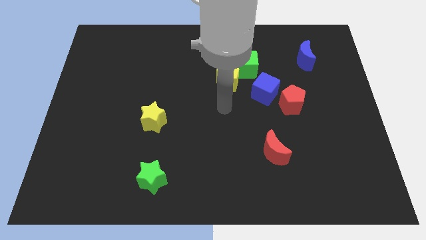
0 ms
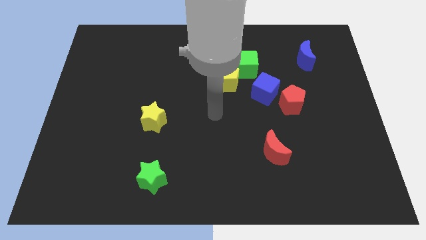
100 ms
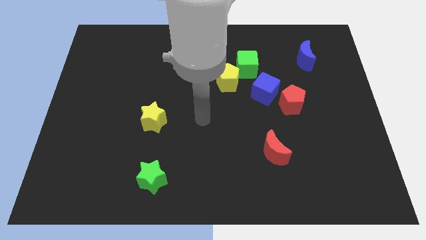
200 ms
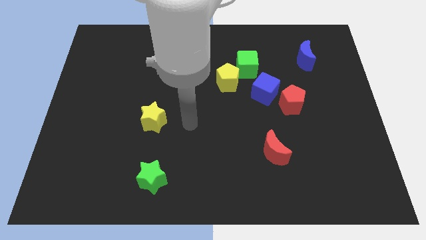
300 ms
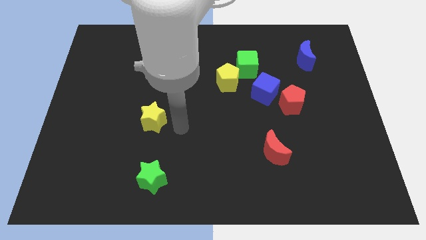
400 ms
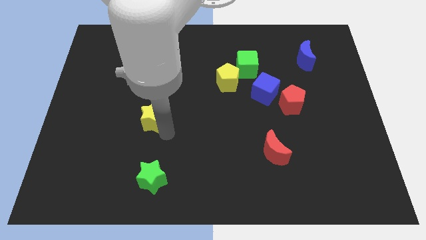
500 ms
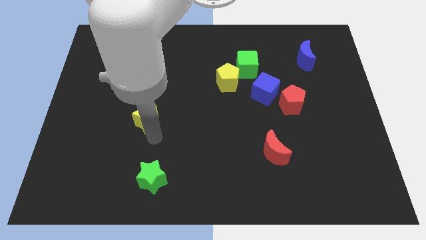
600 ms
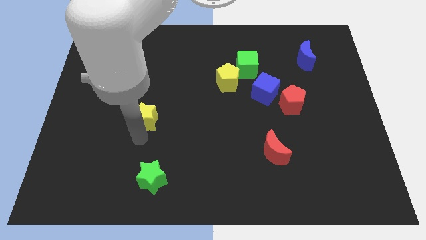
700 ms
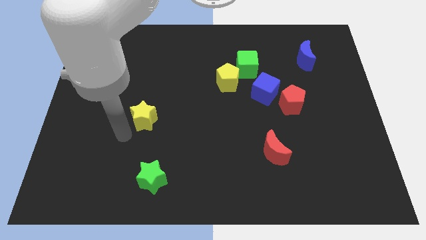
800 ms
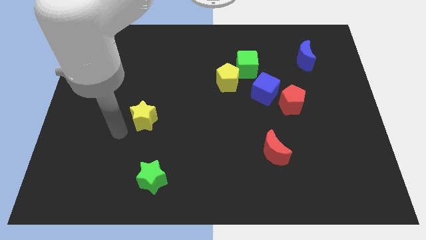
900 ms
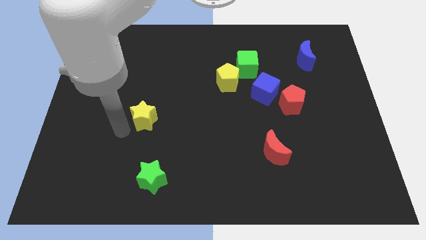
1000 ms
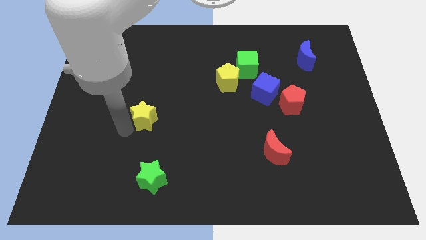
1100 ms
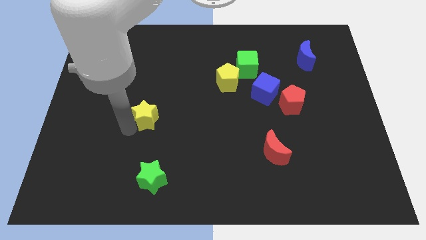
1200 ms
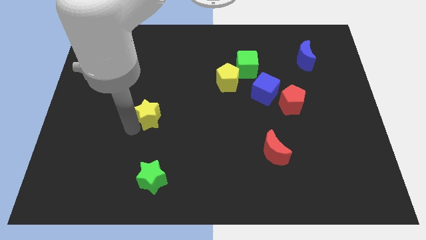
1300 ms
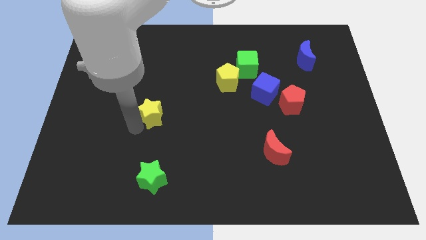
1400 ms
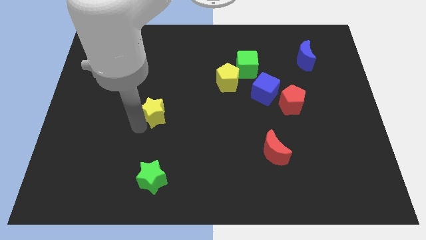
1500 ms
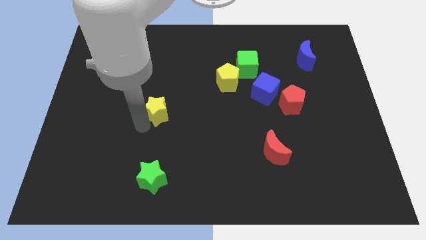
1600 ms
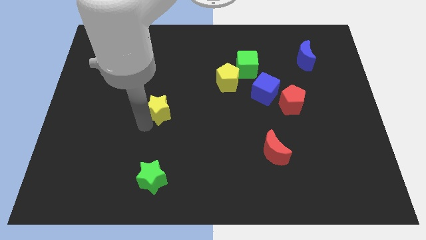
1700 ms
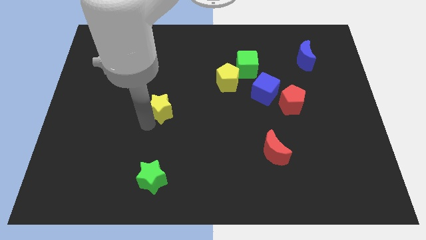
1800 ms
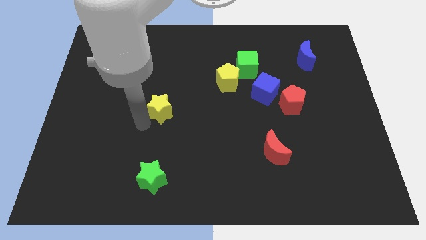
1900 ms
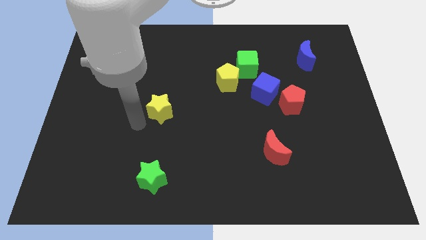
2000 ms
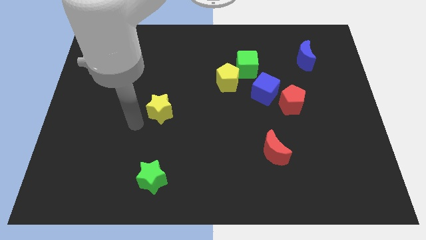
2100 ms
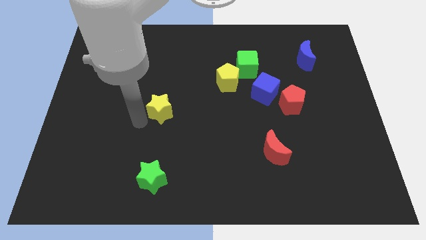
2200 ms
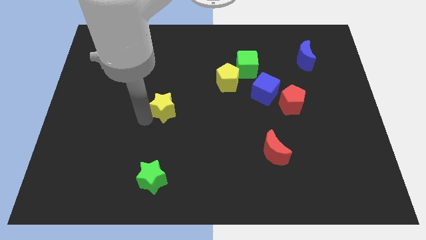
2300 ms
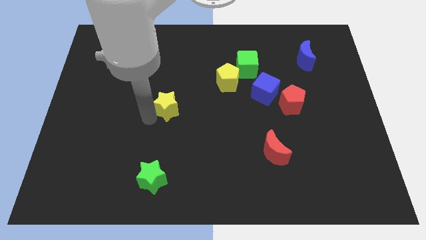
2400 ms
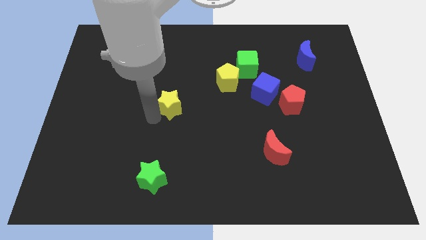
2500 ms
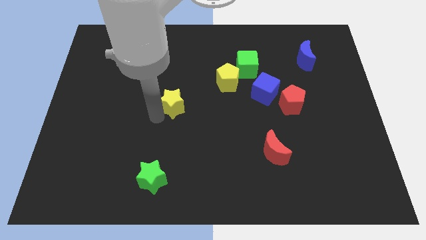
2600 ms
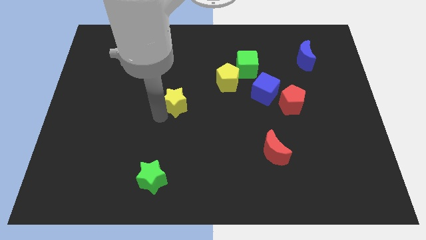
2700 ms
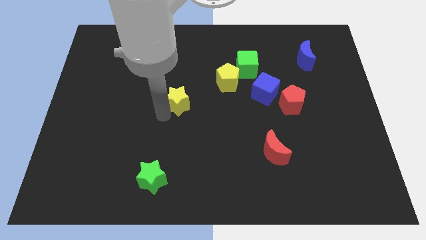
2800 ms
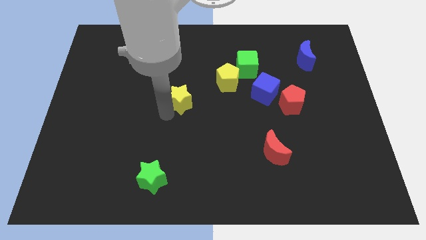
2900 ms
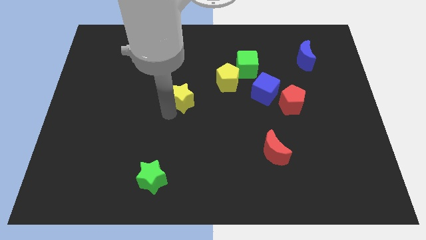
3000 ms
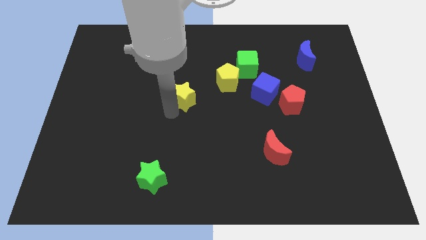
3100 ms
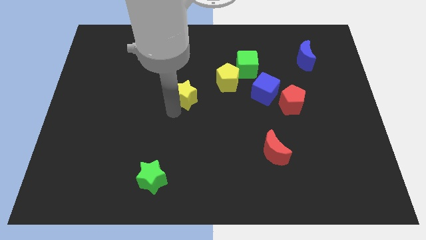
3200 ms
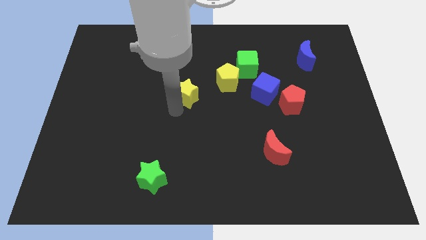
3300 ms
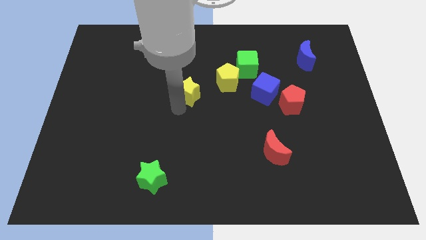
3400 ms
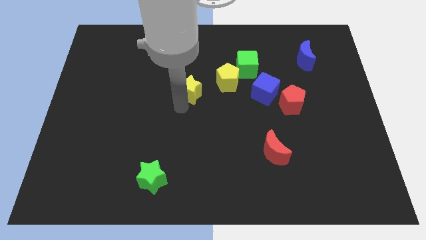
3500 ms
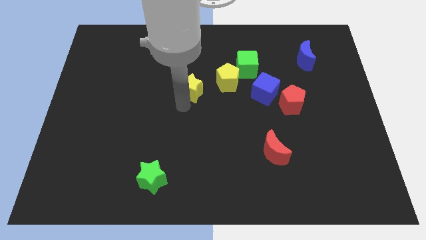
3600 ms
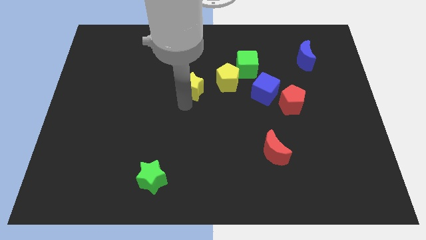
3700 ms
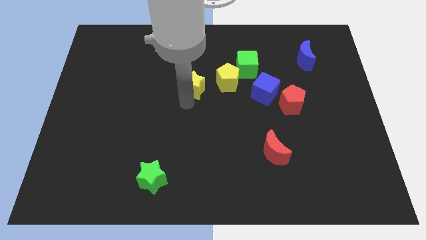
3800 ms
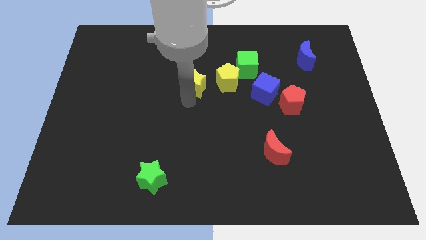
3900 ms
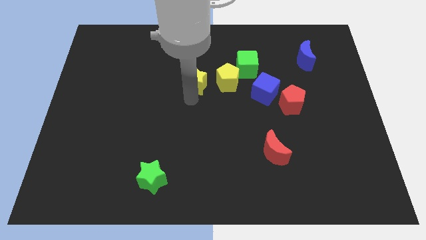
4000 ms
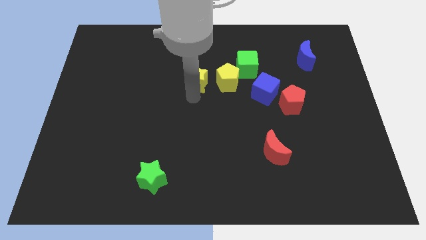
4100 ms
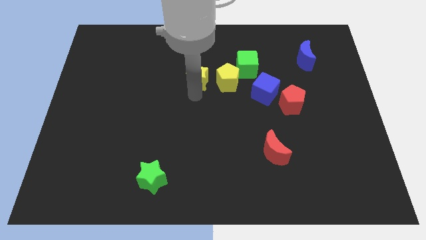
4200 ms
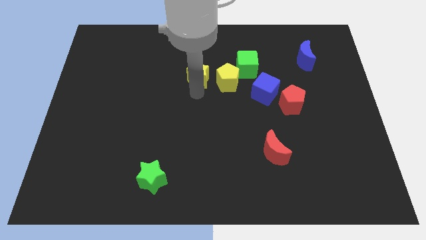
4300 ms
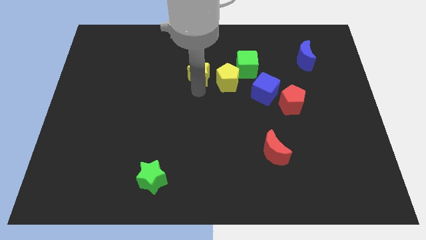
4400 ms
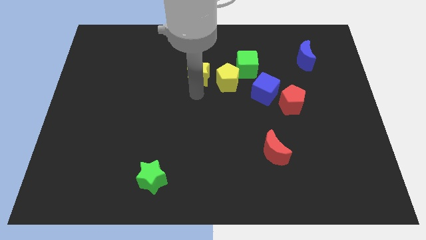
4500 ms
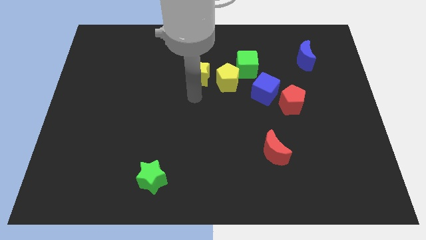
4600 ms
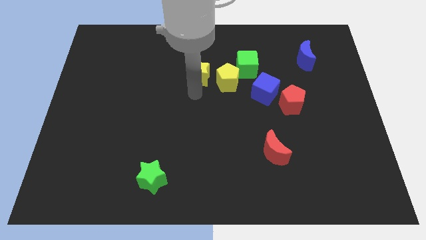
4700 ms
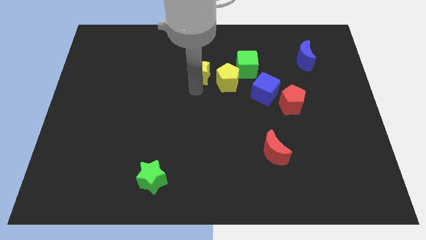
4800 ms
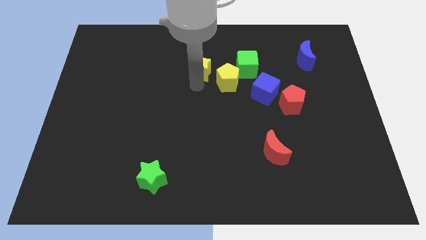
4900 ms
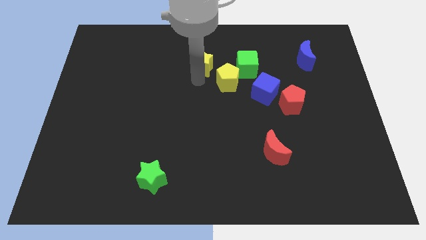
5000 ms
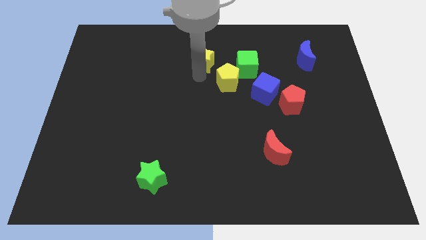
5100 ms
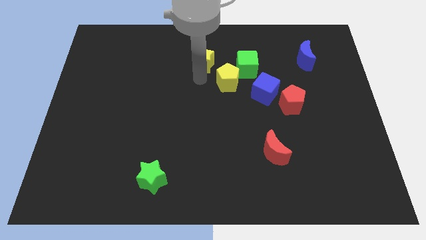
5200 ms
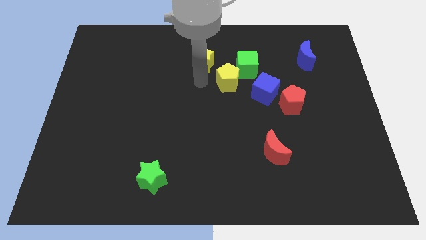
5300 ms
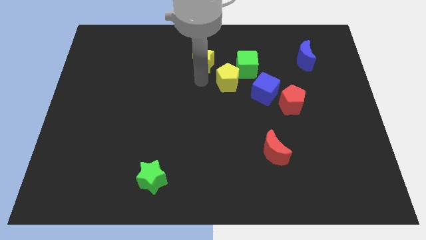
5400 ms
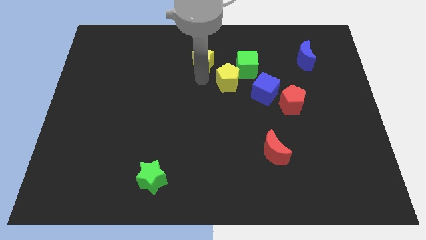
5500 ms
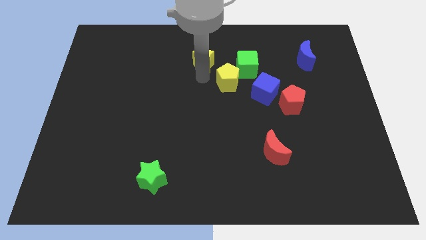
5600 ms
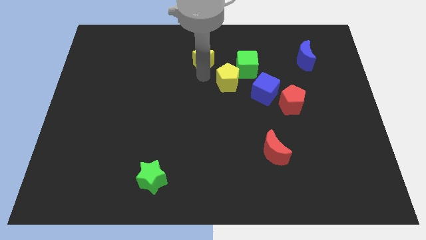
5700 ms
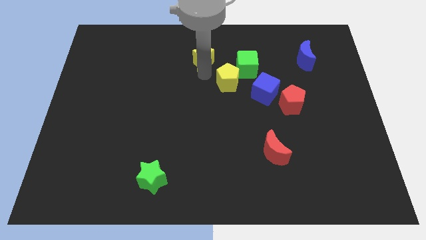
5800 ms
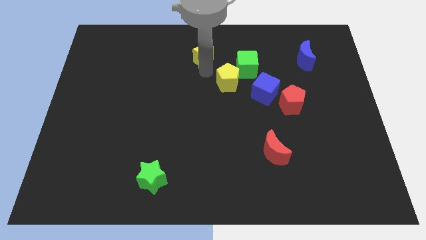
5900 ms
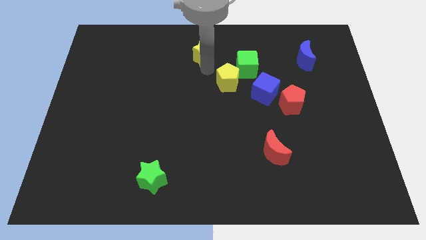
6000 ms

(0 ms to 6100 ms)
push the yellow star to the towards your base

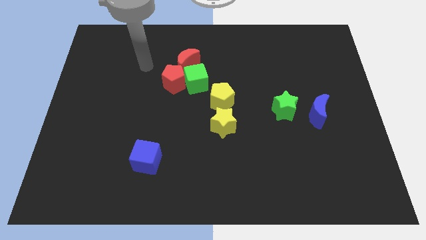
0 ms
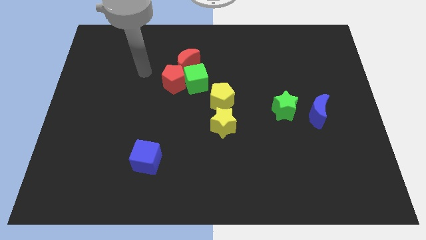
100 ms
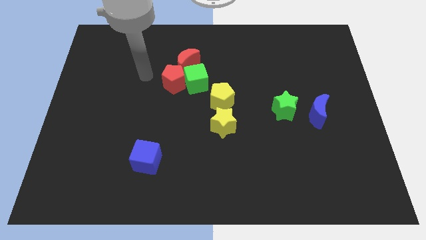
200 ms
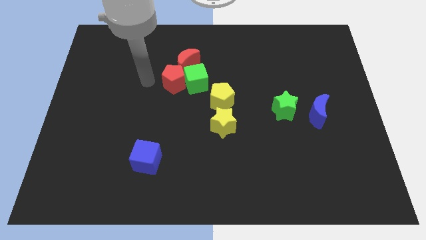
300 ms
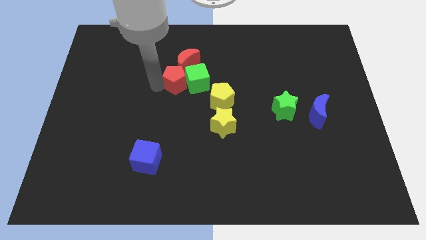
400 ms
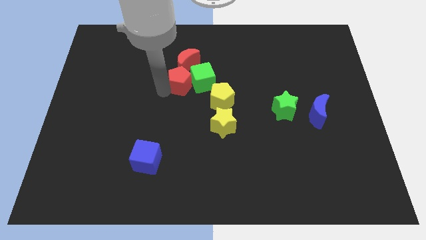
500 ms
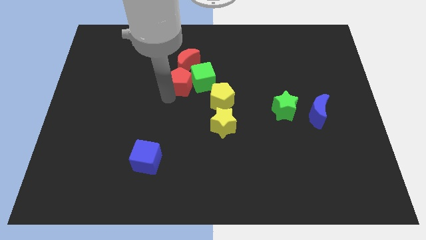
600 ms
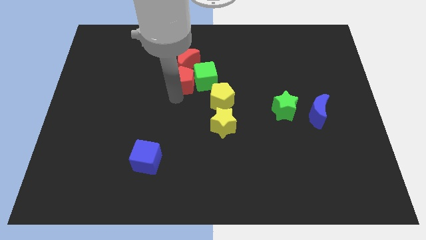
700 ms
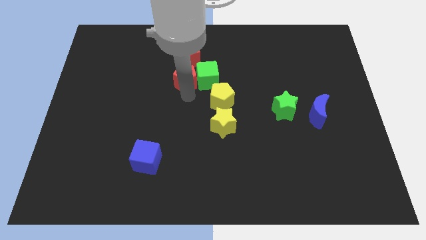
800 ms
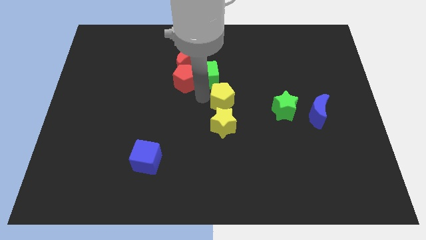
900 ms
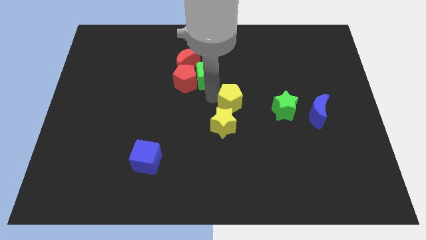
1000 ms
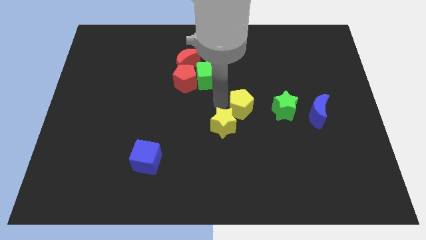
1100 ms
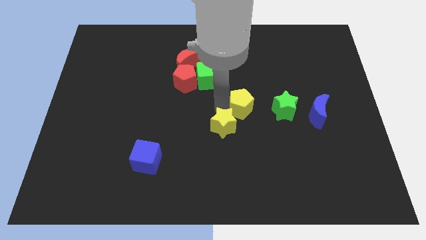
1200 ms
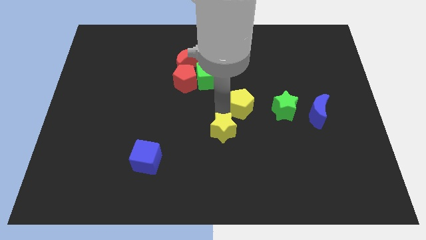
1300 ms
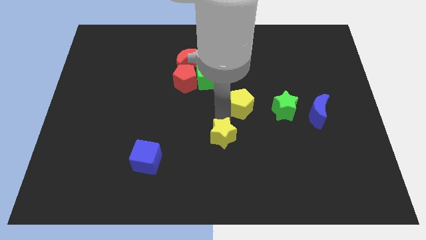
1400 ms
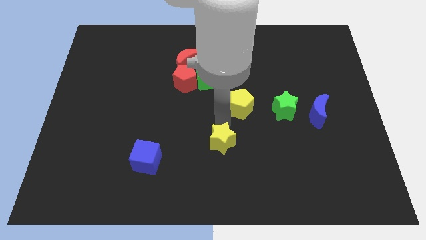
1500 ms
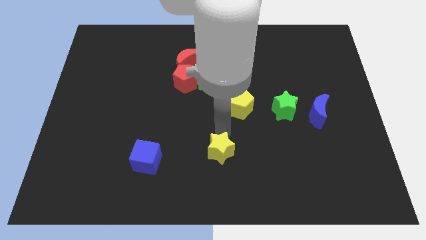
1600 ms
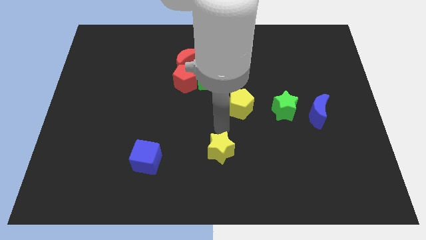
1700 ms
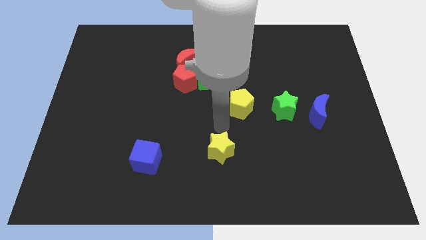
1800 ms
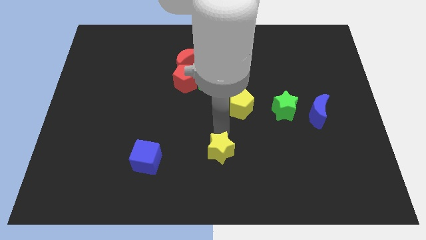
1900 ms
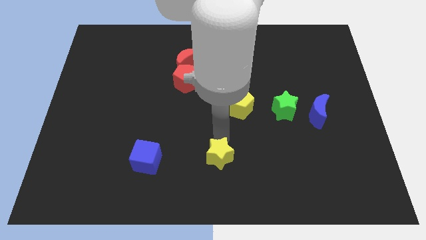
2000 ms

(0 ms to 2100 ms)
push the yellow star to the bottom
